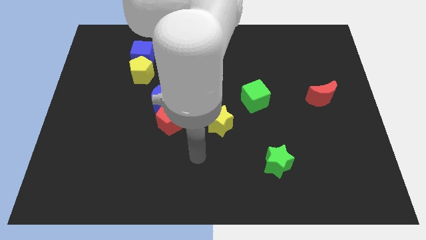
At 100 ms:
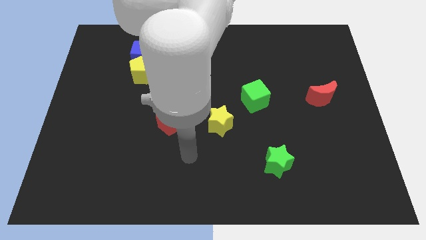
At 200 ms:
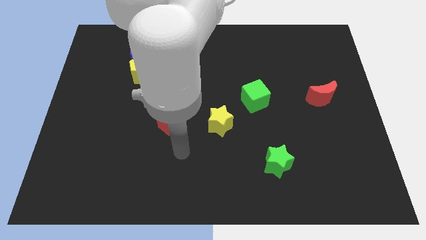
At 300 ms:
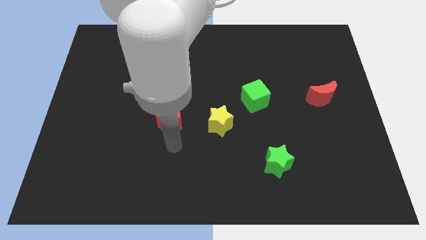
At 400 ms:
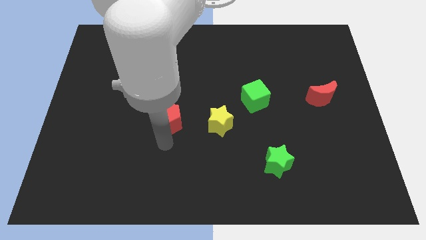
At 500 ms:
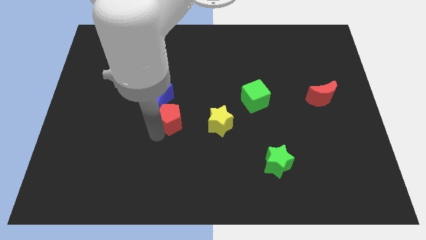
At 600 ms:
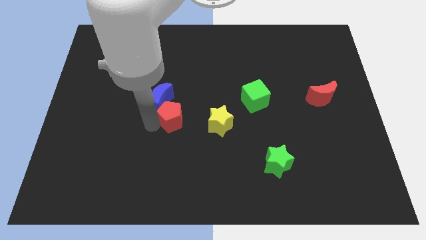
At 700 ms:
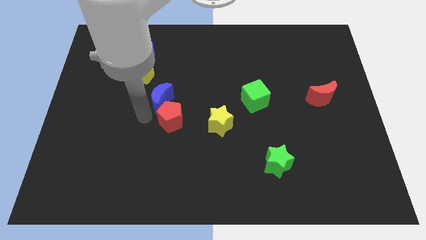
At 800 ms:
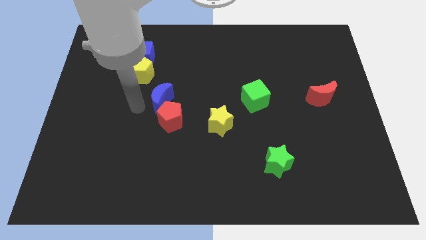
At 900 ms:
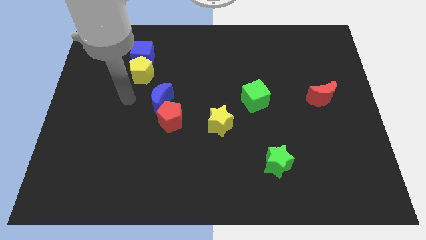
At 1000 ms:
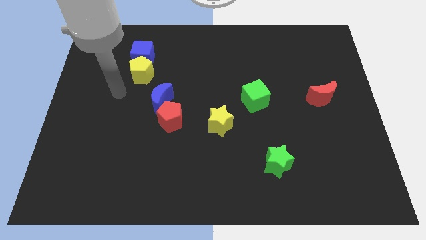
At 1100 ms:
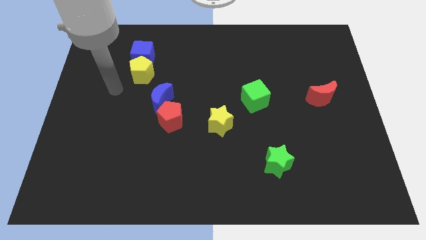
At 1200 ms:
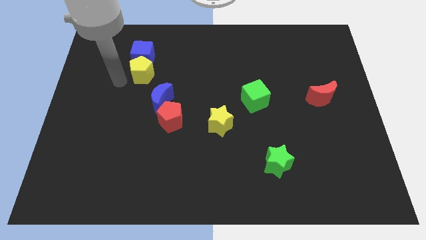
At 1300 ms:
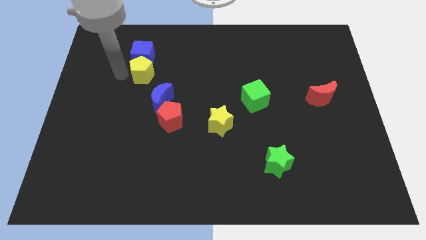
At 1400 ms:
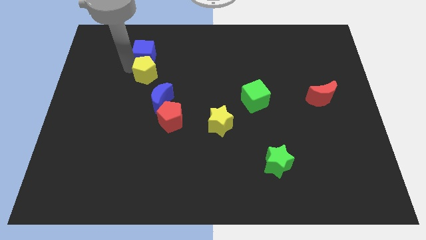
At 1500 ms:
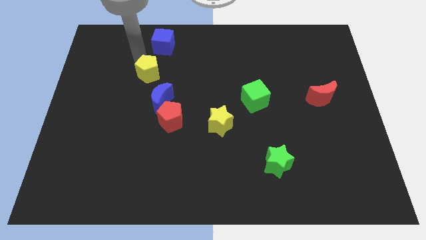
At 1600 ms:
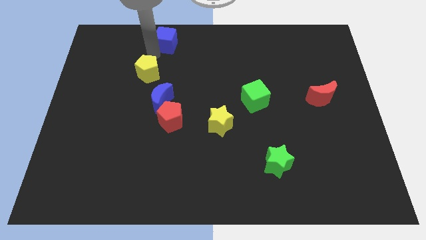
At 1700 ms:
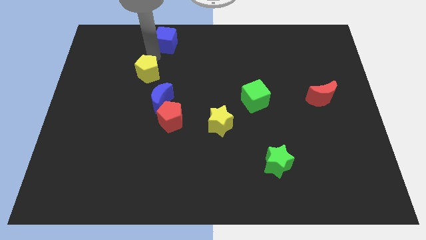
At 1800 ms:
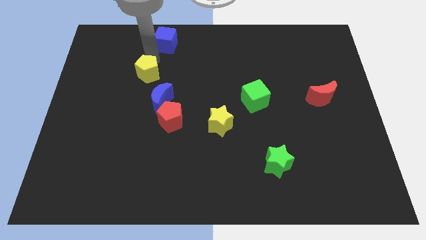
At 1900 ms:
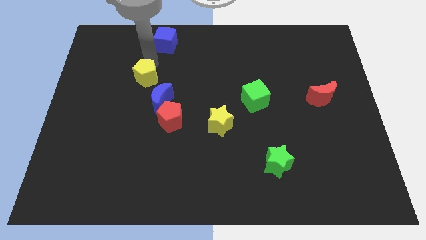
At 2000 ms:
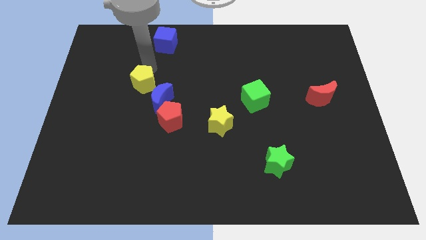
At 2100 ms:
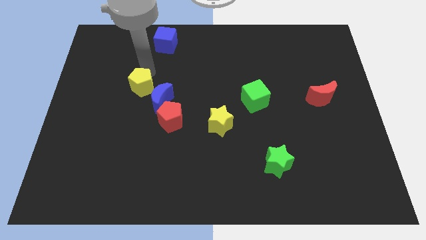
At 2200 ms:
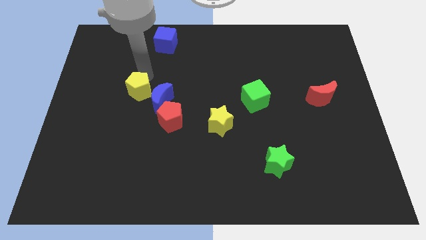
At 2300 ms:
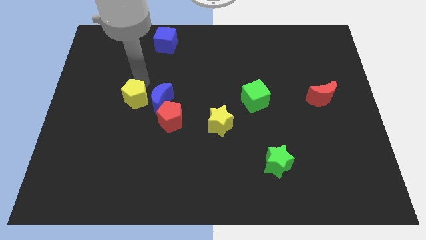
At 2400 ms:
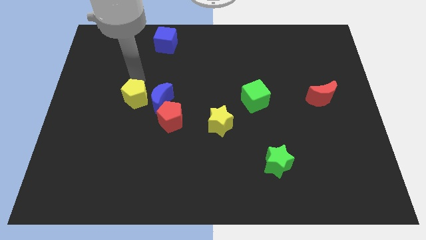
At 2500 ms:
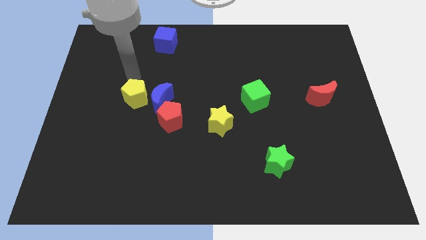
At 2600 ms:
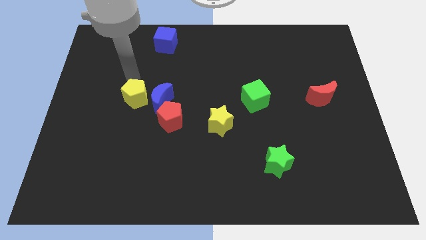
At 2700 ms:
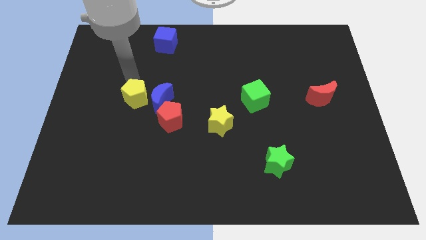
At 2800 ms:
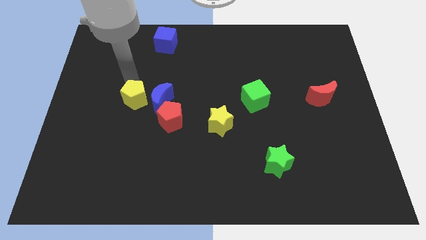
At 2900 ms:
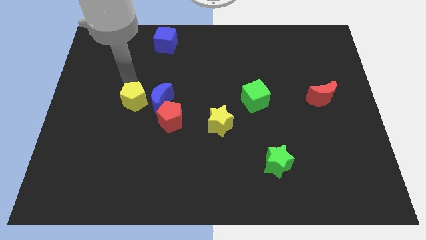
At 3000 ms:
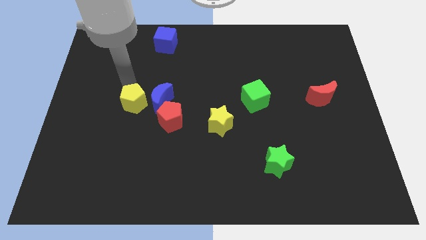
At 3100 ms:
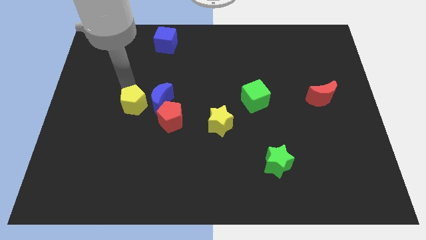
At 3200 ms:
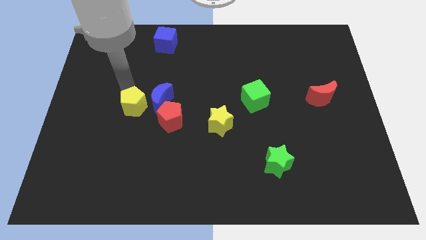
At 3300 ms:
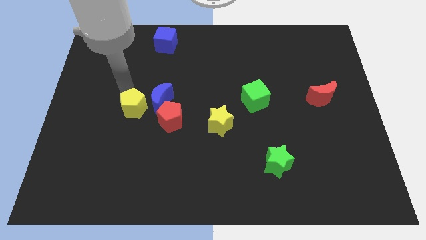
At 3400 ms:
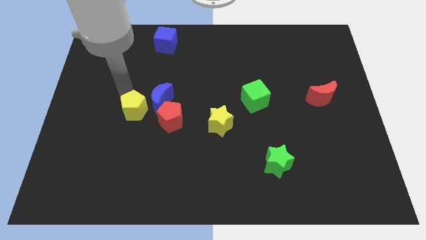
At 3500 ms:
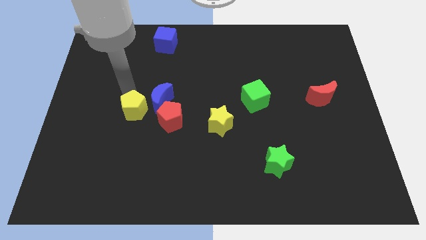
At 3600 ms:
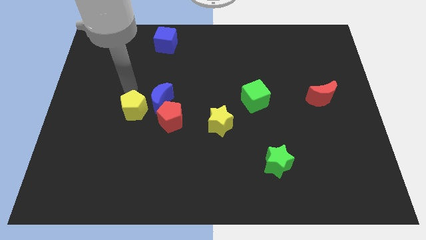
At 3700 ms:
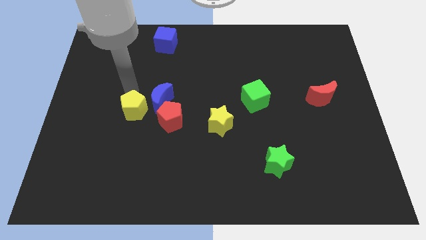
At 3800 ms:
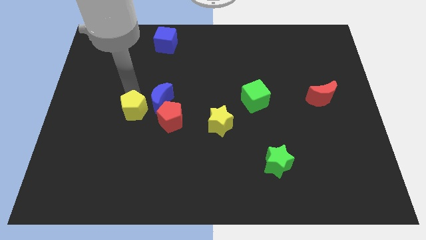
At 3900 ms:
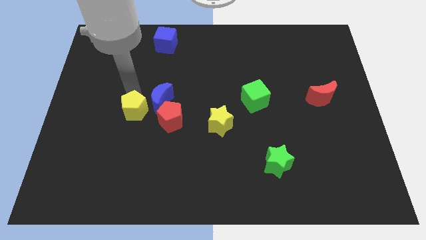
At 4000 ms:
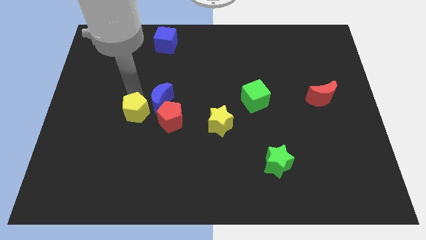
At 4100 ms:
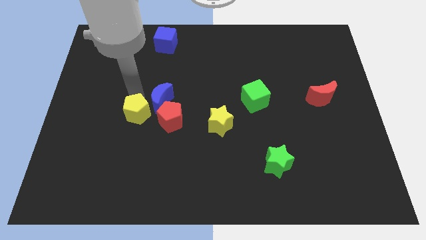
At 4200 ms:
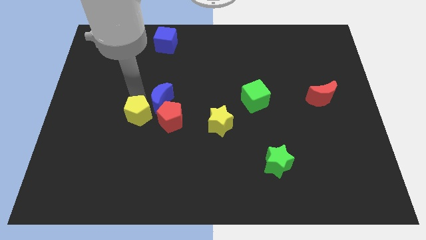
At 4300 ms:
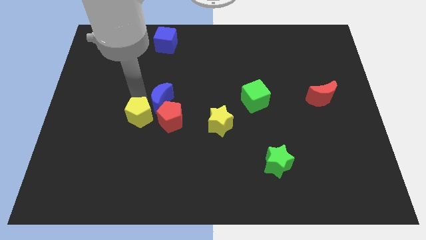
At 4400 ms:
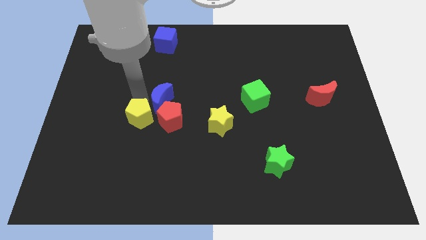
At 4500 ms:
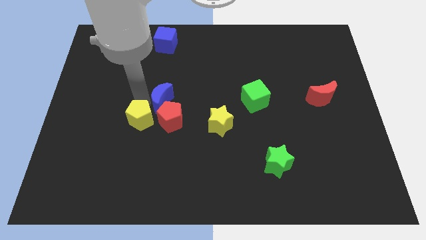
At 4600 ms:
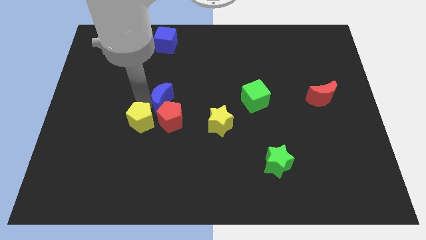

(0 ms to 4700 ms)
push the yellow pentagon to the bottom left of the red pentagon

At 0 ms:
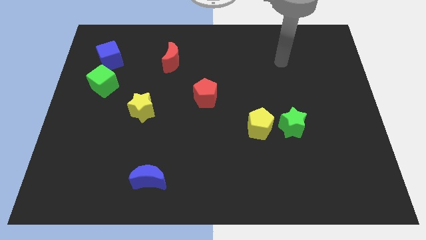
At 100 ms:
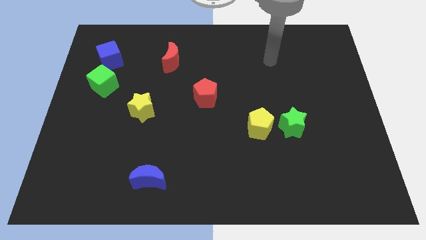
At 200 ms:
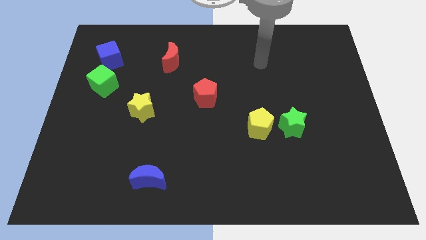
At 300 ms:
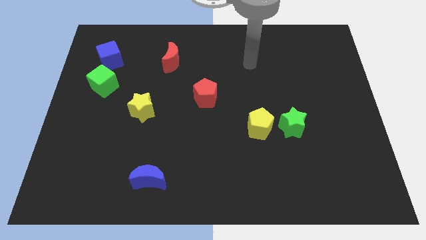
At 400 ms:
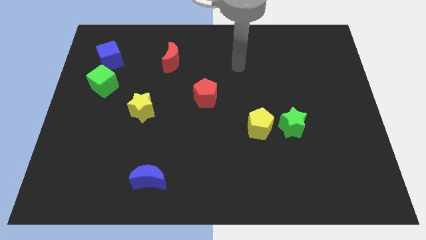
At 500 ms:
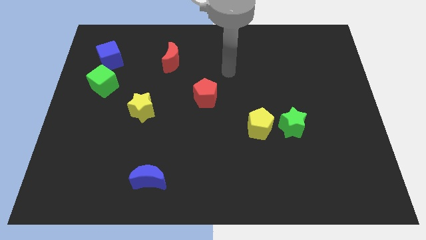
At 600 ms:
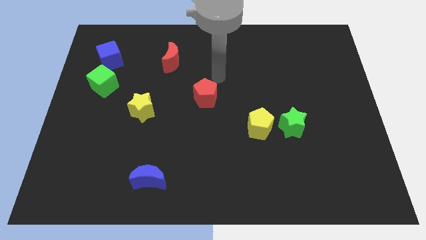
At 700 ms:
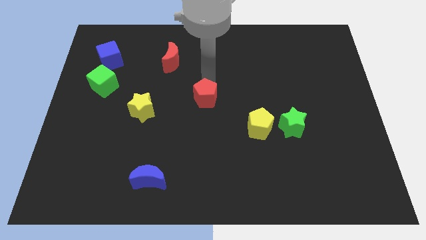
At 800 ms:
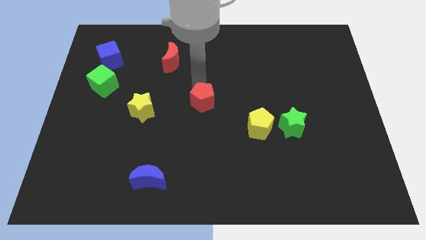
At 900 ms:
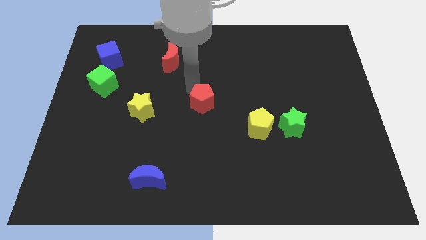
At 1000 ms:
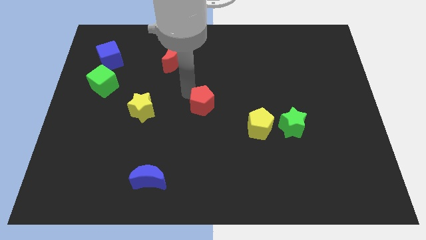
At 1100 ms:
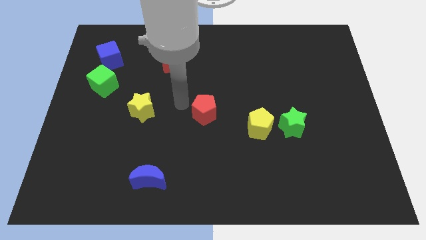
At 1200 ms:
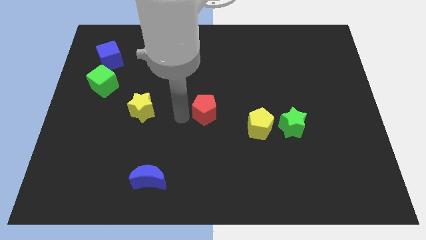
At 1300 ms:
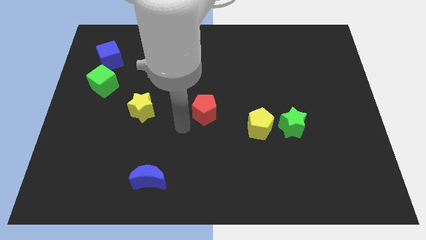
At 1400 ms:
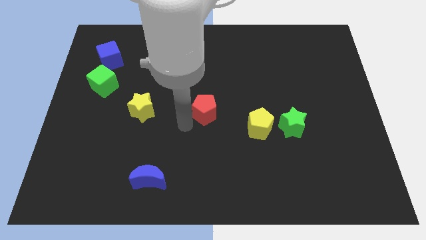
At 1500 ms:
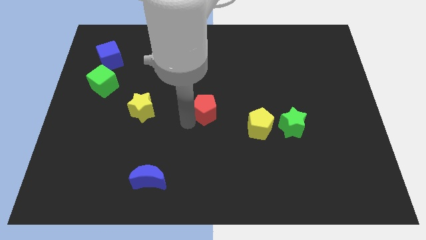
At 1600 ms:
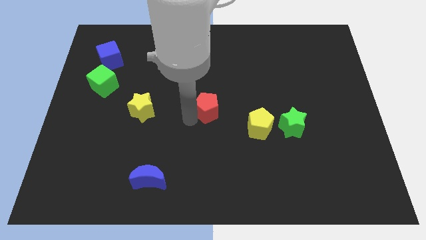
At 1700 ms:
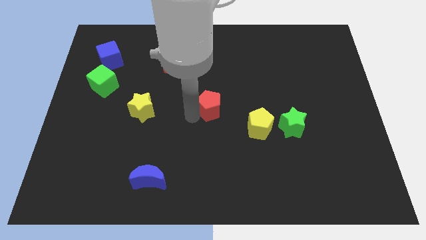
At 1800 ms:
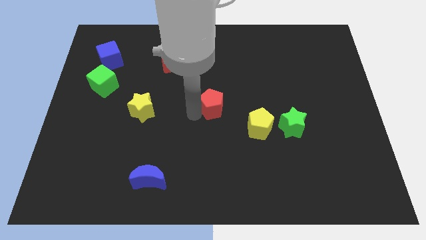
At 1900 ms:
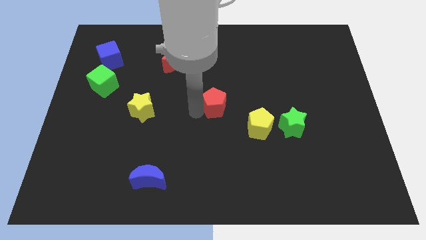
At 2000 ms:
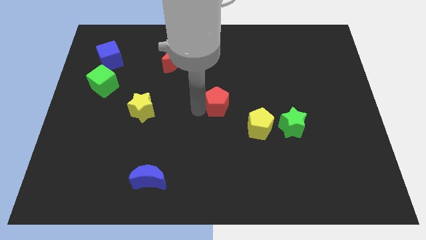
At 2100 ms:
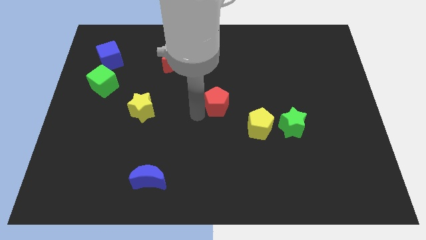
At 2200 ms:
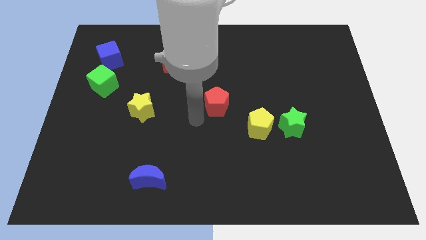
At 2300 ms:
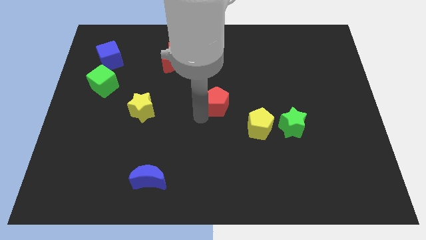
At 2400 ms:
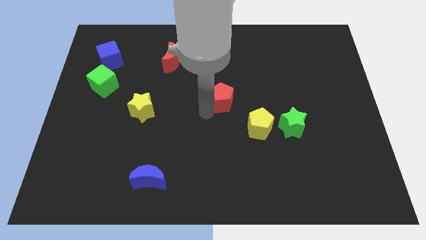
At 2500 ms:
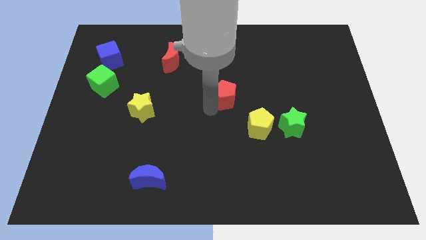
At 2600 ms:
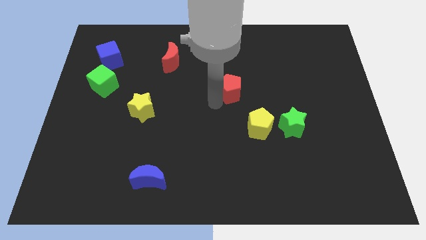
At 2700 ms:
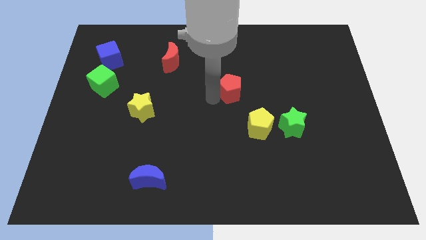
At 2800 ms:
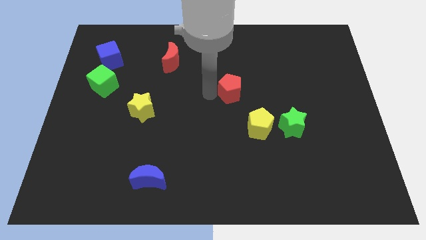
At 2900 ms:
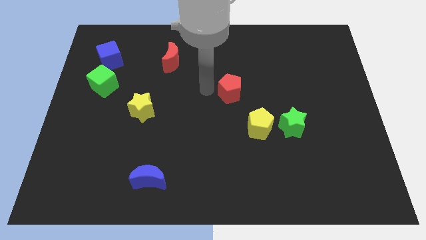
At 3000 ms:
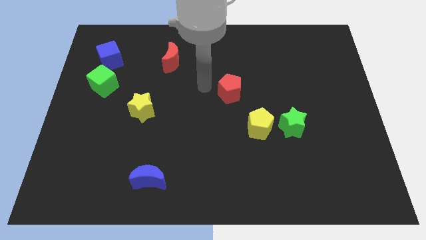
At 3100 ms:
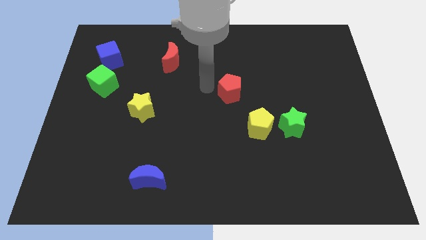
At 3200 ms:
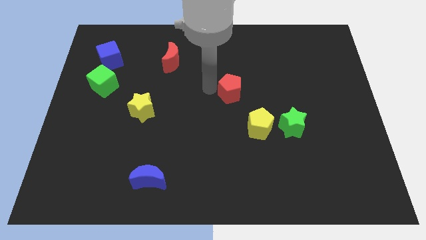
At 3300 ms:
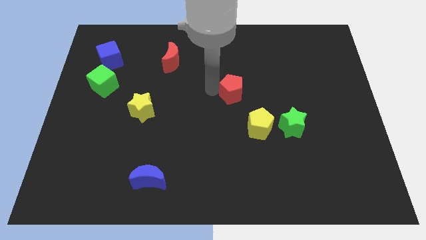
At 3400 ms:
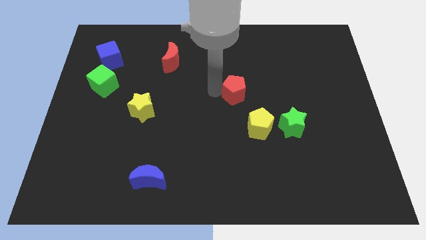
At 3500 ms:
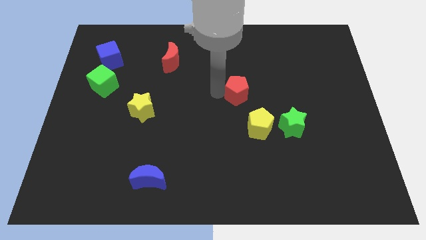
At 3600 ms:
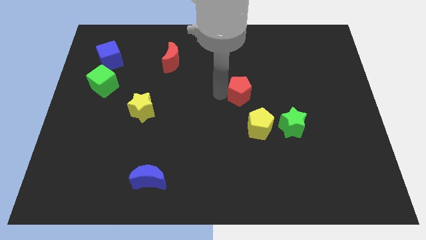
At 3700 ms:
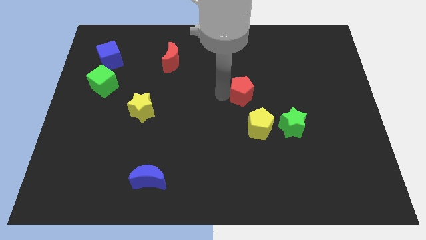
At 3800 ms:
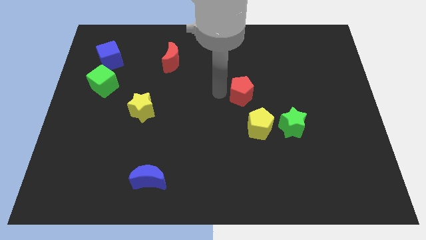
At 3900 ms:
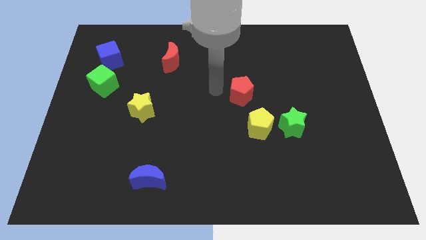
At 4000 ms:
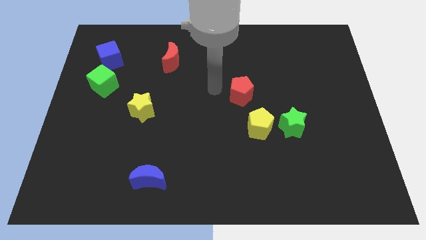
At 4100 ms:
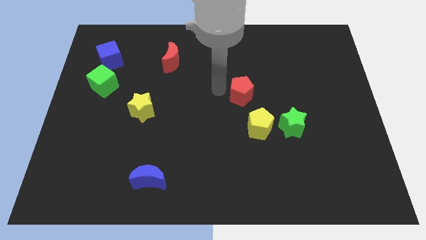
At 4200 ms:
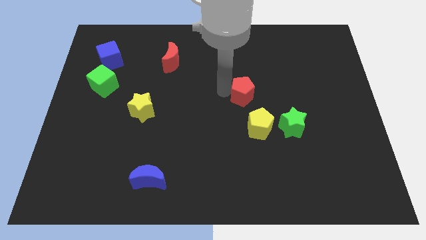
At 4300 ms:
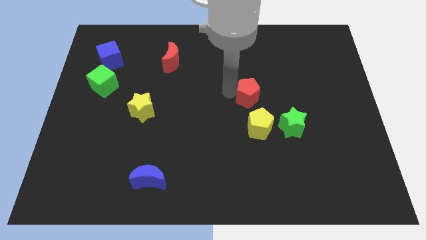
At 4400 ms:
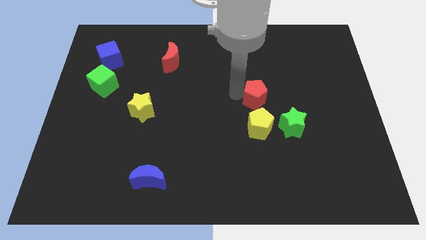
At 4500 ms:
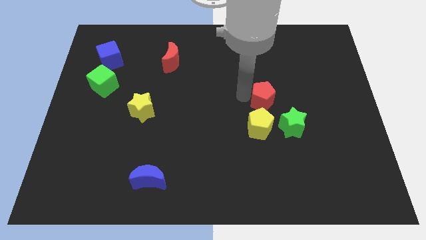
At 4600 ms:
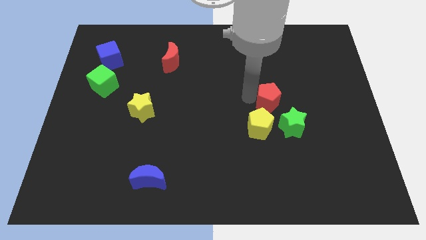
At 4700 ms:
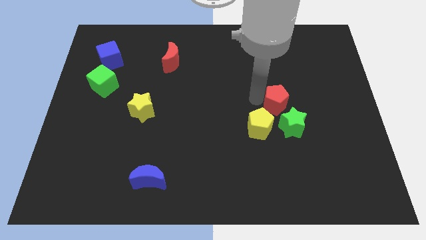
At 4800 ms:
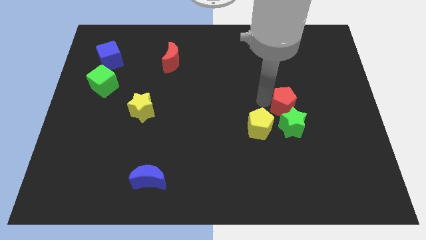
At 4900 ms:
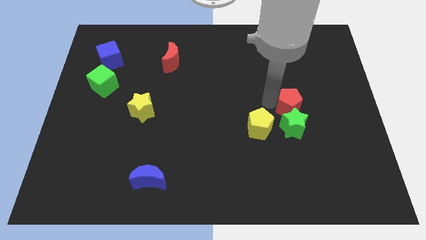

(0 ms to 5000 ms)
push the red pentagon diagonally up and to the right of the green star
